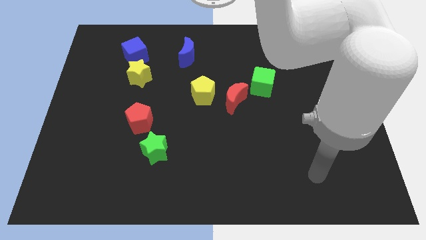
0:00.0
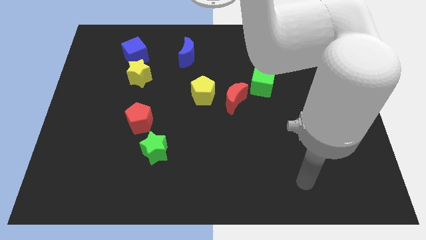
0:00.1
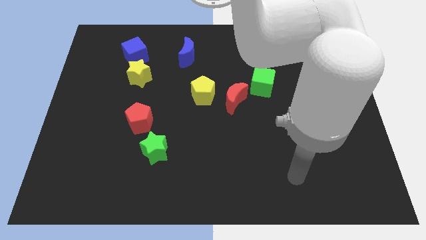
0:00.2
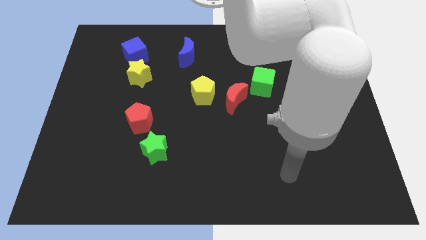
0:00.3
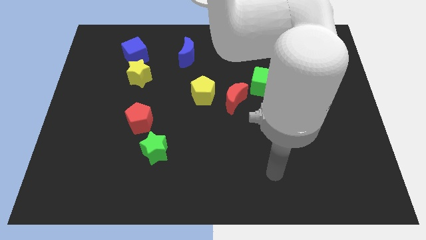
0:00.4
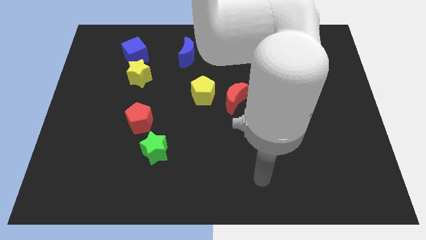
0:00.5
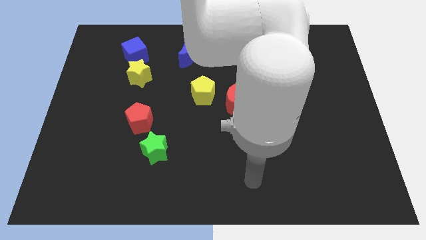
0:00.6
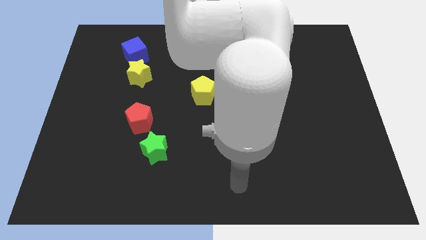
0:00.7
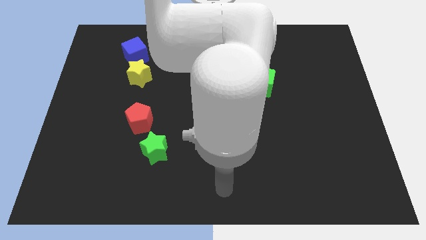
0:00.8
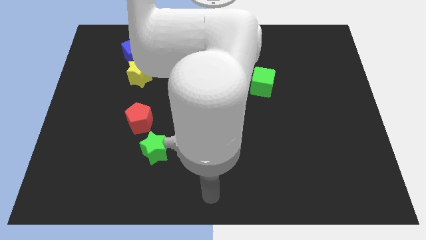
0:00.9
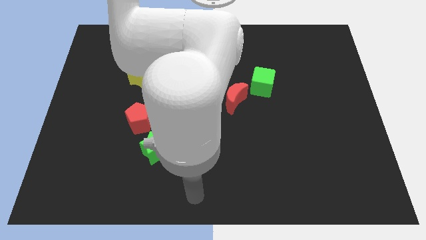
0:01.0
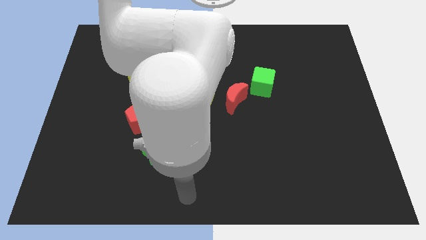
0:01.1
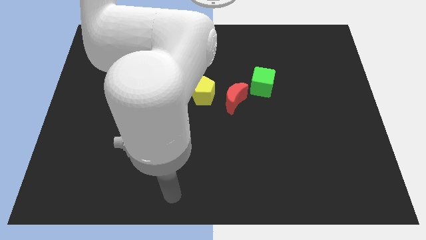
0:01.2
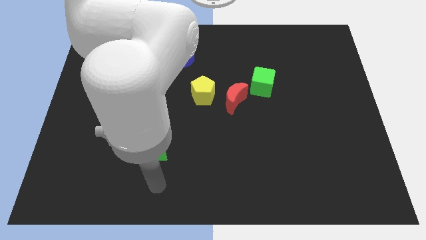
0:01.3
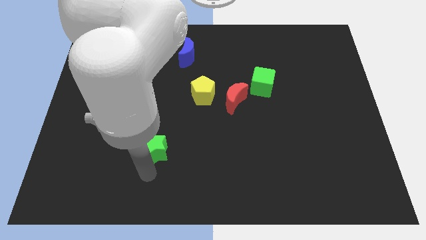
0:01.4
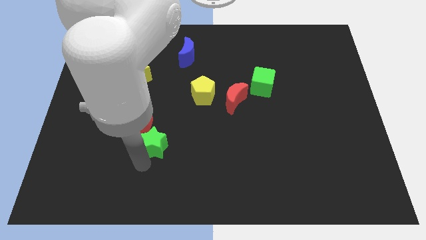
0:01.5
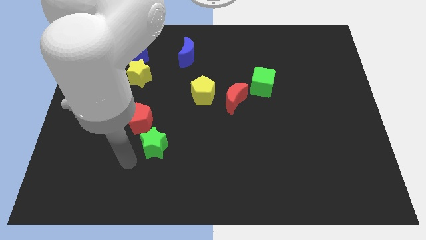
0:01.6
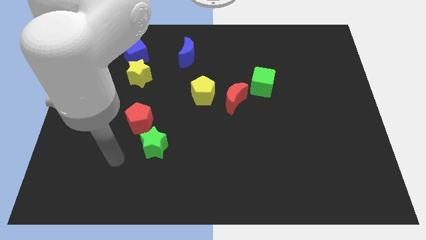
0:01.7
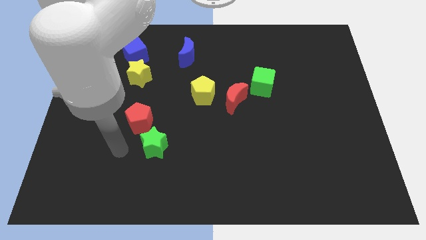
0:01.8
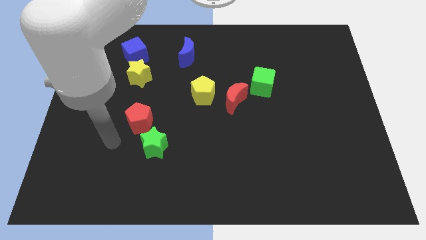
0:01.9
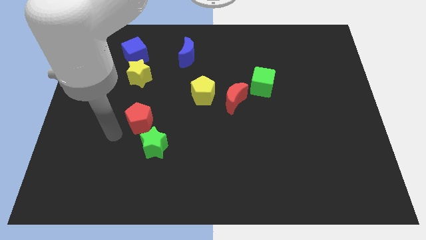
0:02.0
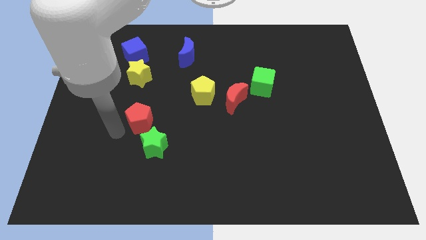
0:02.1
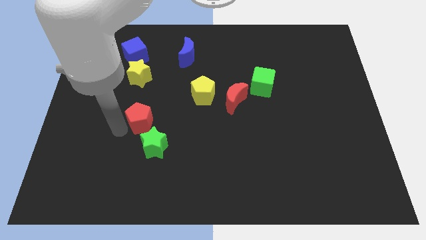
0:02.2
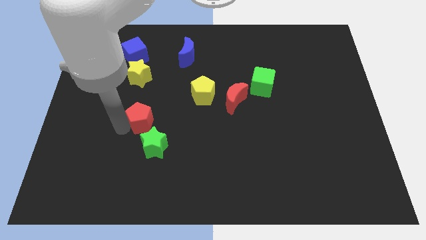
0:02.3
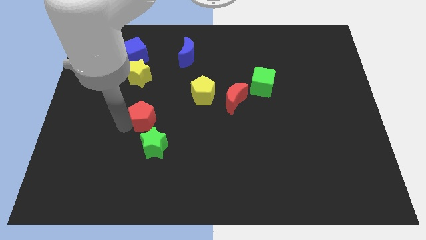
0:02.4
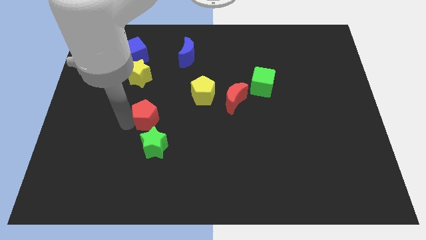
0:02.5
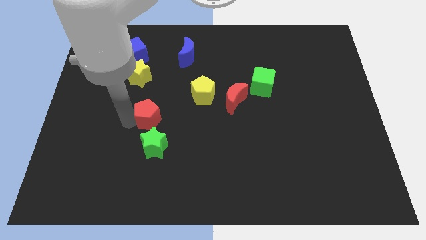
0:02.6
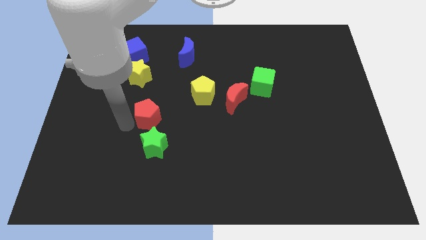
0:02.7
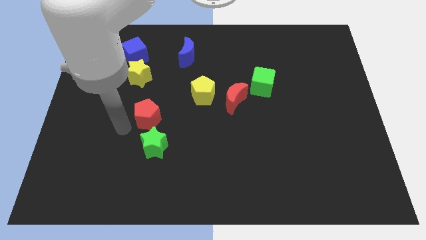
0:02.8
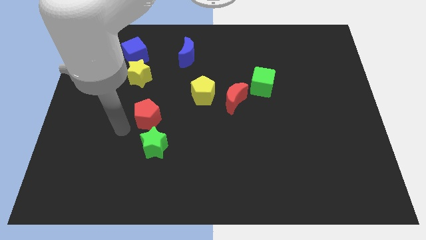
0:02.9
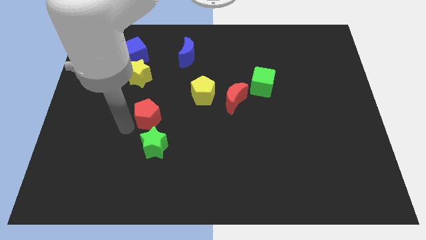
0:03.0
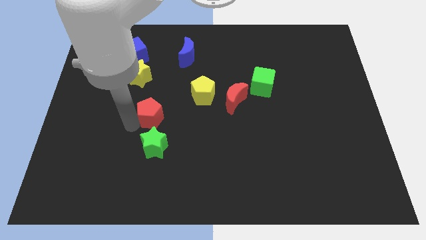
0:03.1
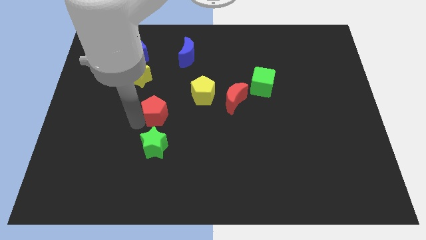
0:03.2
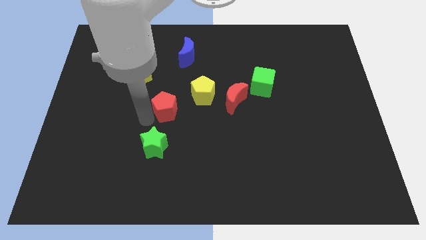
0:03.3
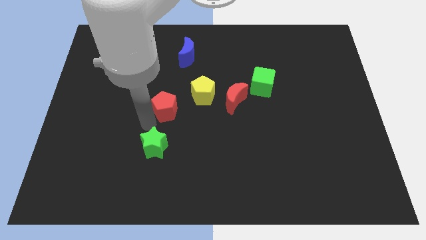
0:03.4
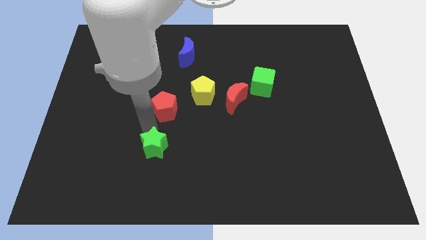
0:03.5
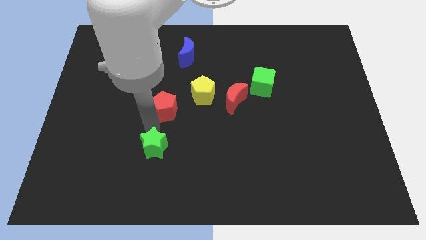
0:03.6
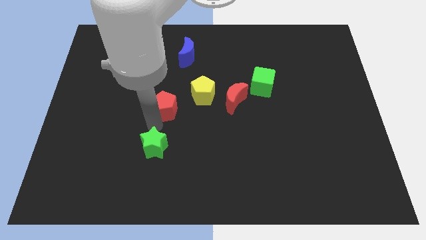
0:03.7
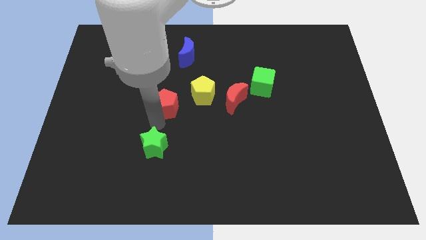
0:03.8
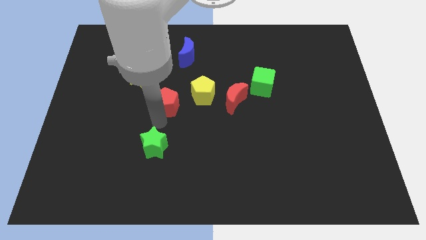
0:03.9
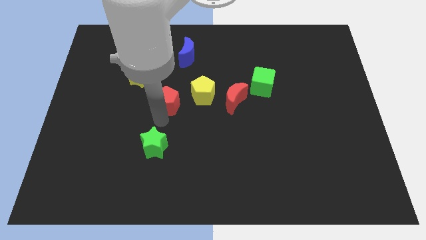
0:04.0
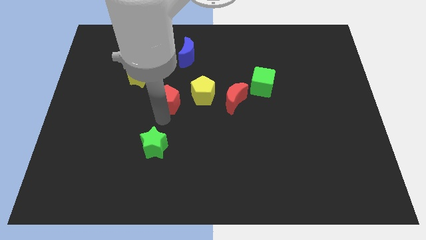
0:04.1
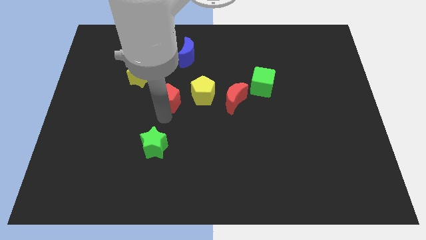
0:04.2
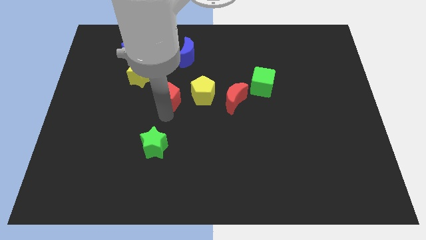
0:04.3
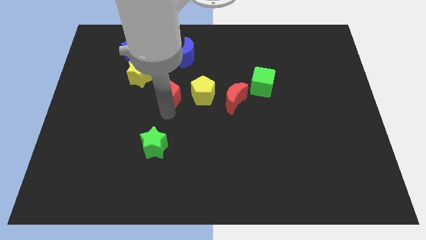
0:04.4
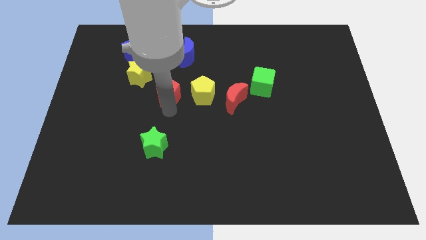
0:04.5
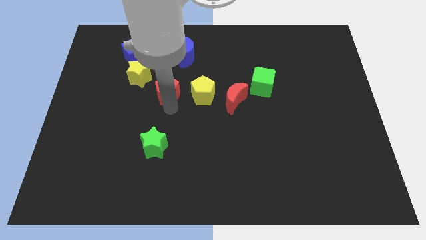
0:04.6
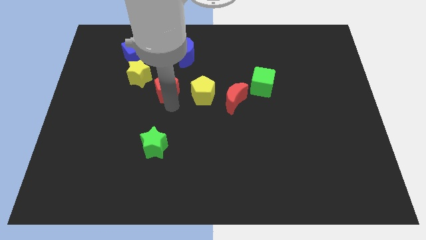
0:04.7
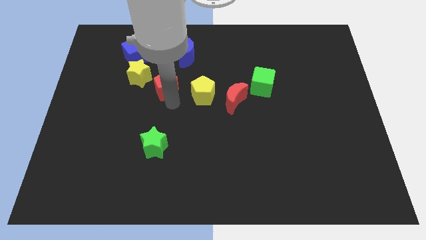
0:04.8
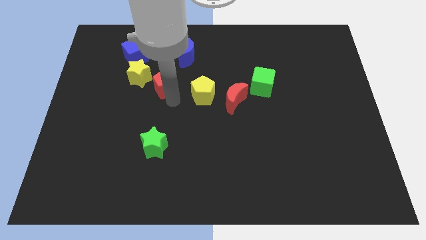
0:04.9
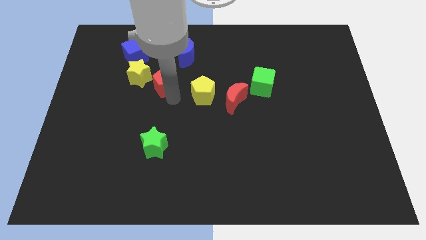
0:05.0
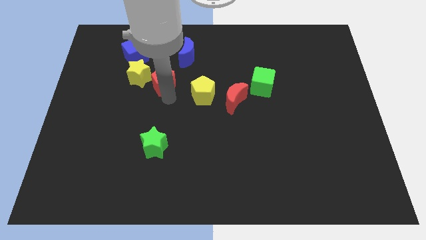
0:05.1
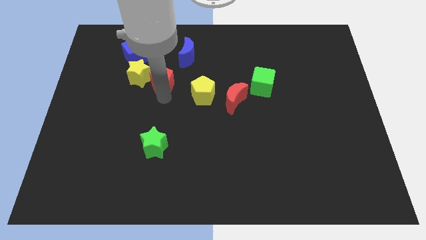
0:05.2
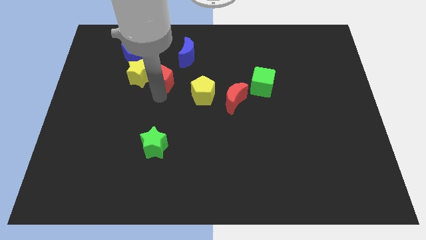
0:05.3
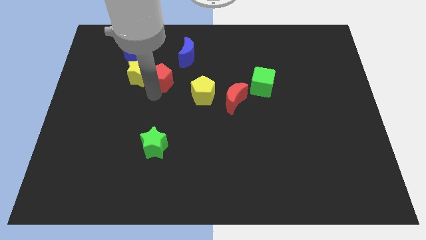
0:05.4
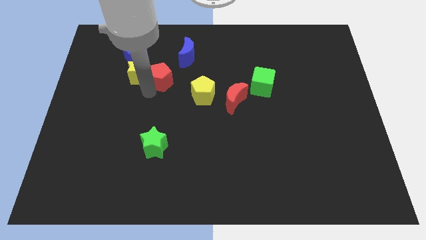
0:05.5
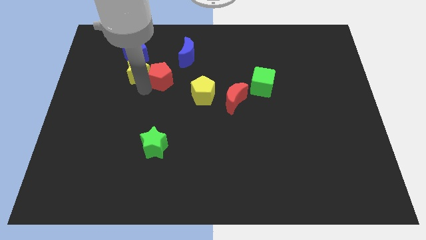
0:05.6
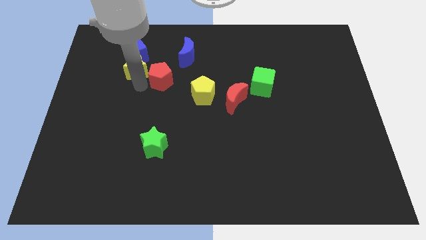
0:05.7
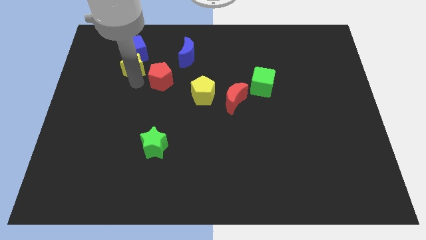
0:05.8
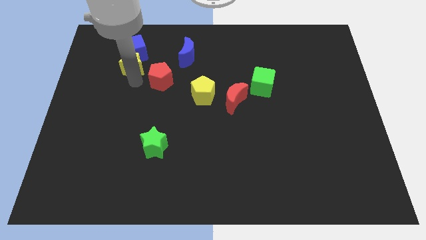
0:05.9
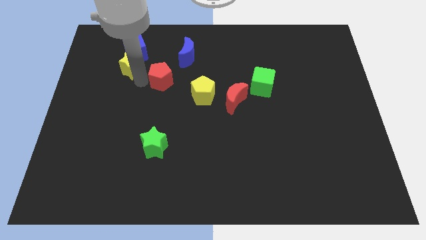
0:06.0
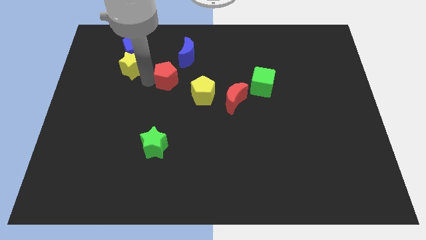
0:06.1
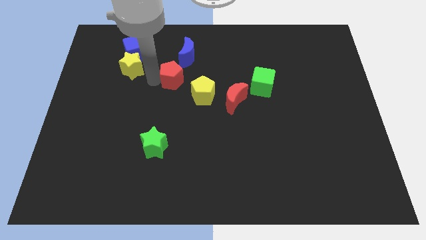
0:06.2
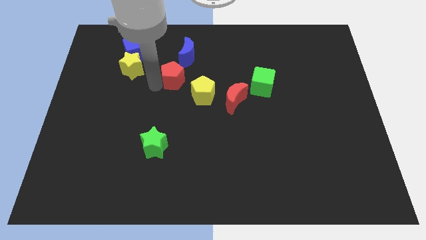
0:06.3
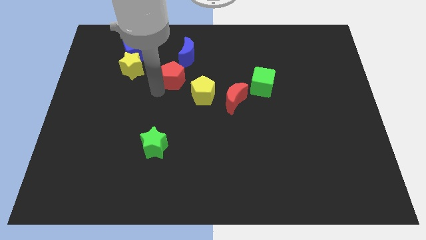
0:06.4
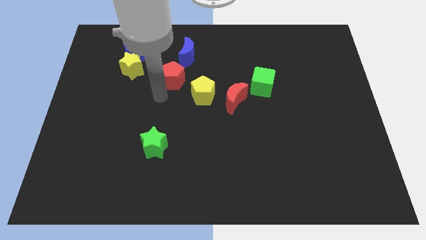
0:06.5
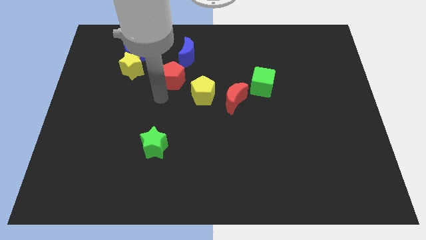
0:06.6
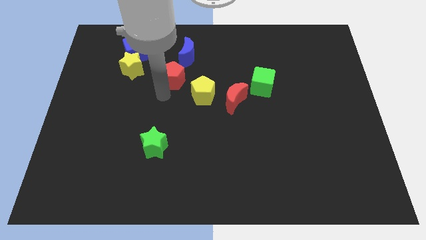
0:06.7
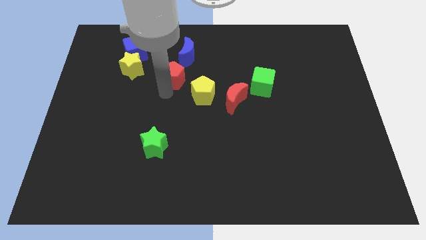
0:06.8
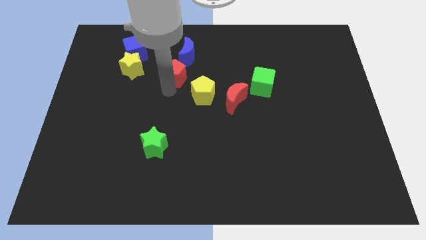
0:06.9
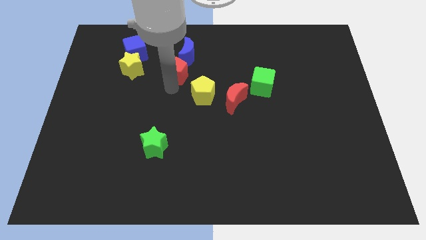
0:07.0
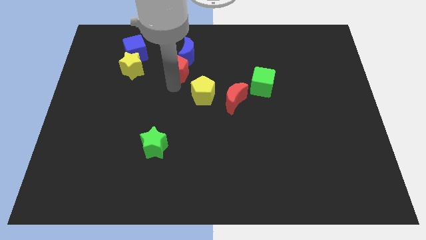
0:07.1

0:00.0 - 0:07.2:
put the red pentagon towards the blue moon
